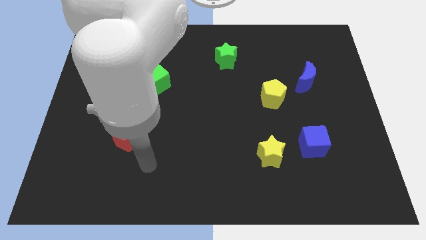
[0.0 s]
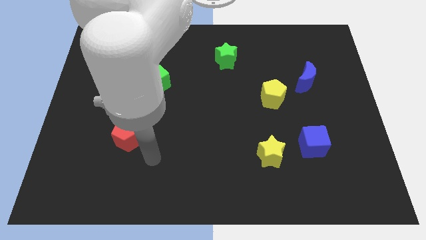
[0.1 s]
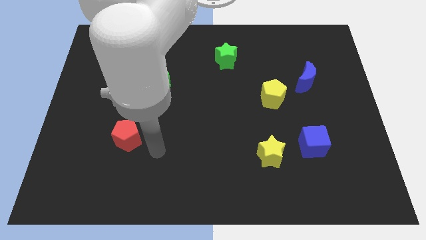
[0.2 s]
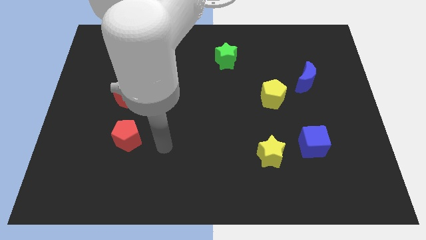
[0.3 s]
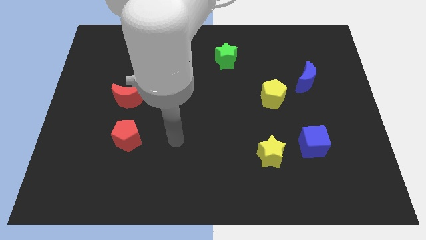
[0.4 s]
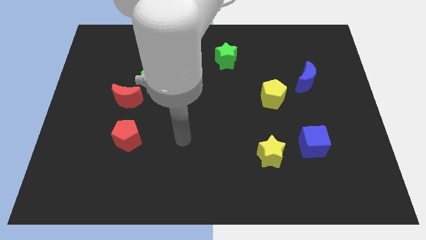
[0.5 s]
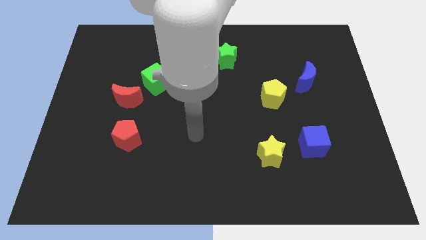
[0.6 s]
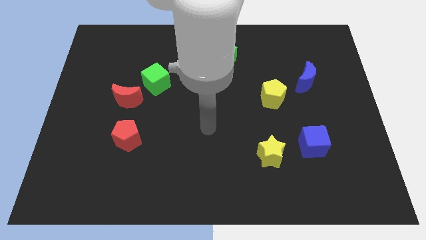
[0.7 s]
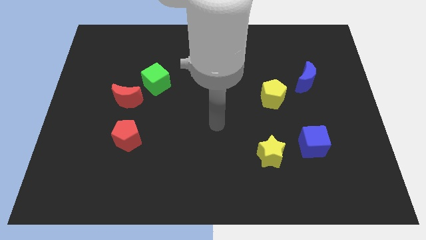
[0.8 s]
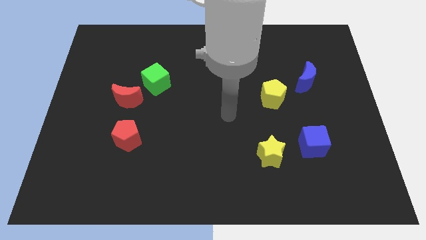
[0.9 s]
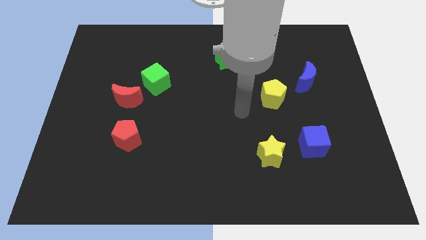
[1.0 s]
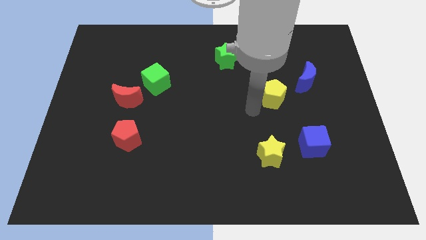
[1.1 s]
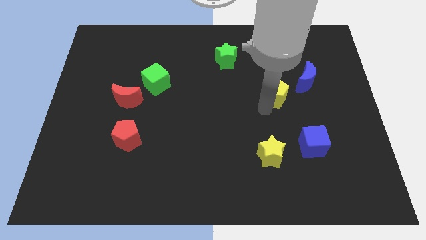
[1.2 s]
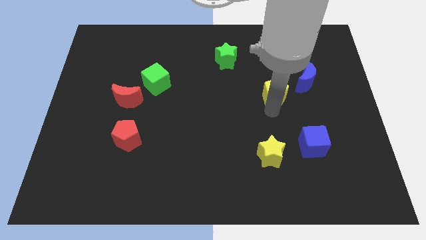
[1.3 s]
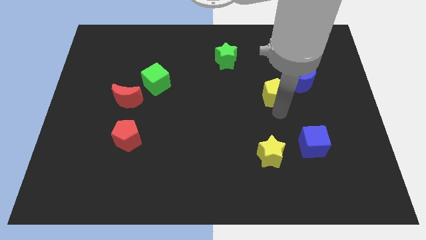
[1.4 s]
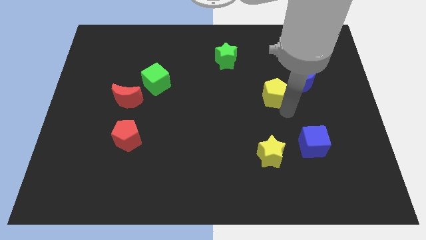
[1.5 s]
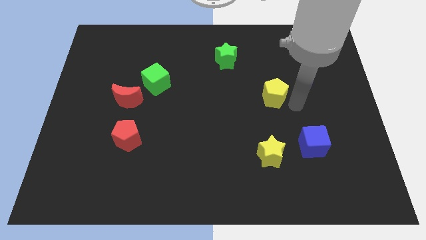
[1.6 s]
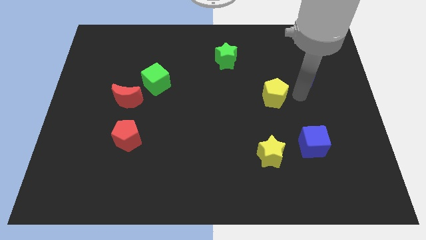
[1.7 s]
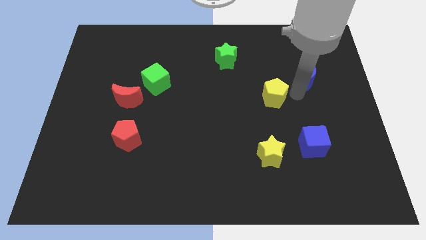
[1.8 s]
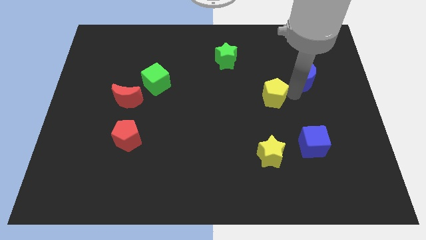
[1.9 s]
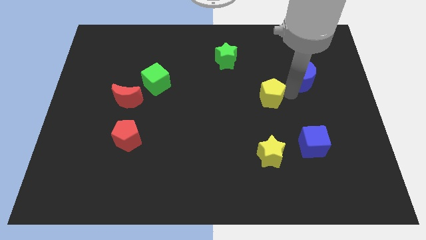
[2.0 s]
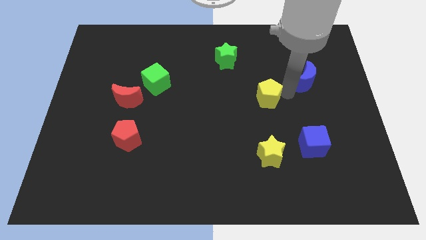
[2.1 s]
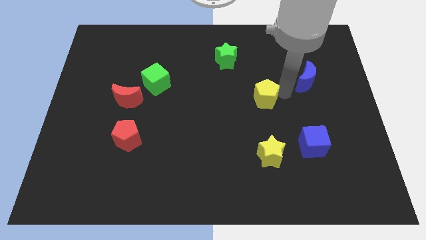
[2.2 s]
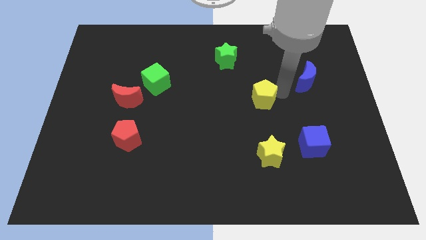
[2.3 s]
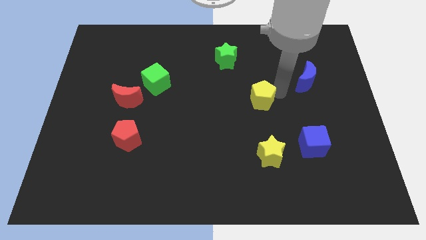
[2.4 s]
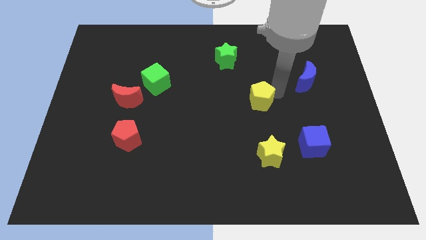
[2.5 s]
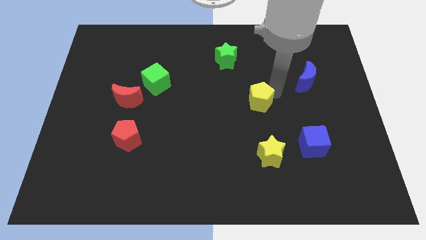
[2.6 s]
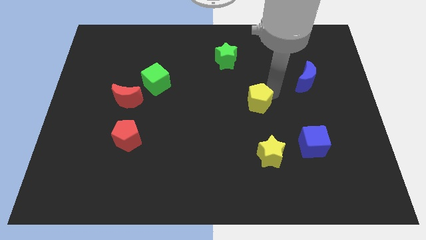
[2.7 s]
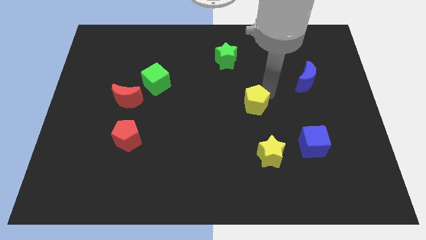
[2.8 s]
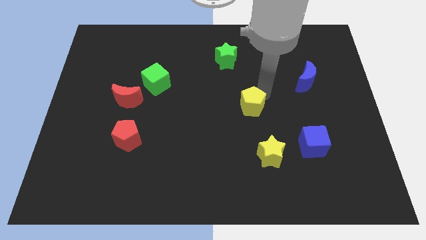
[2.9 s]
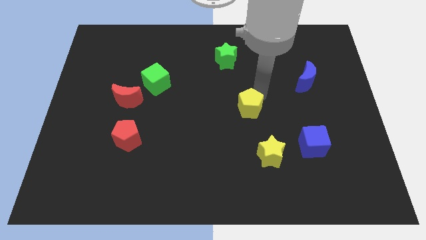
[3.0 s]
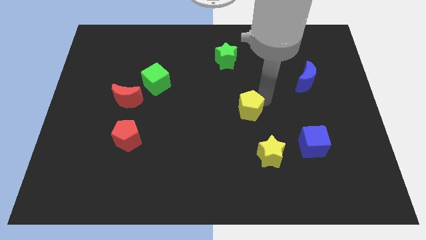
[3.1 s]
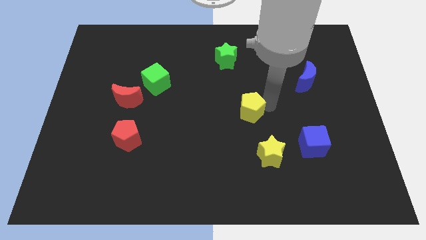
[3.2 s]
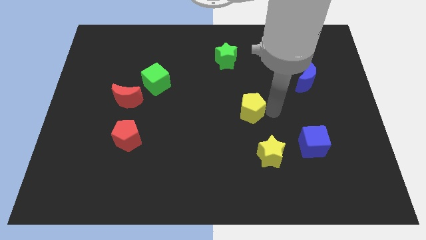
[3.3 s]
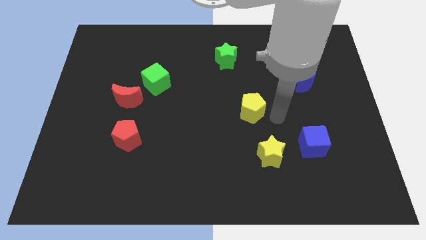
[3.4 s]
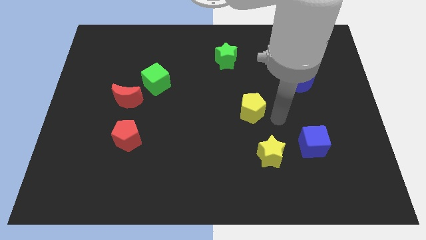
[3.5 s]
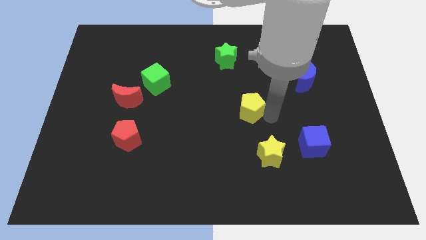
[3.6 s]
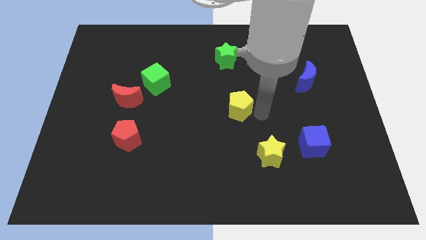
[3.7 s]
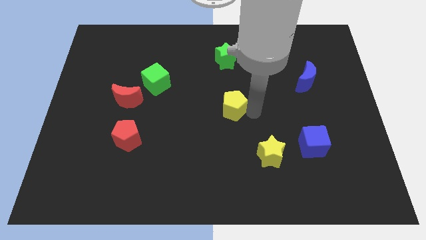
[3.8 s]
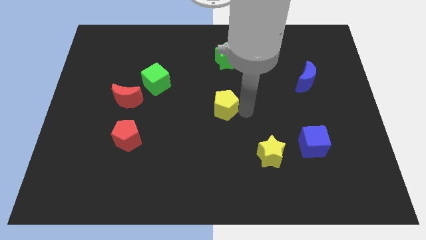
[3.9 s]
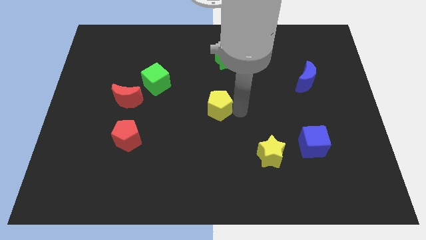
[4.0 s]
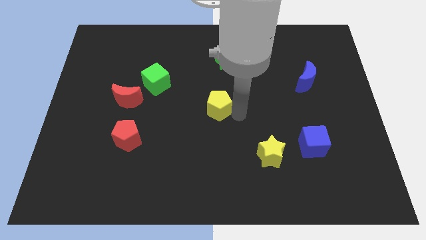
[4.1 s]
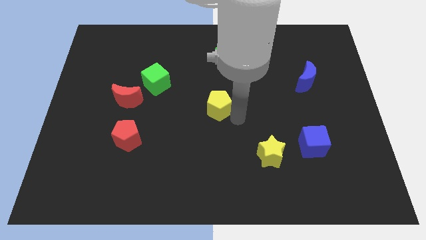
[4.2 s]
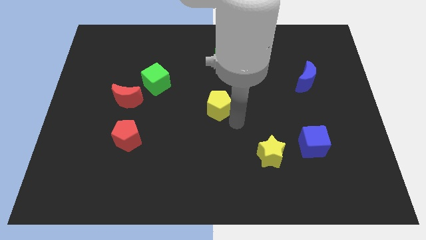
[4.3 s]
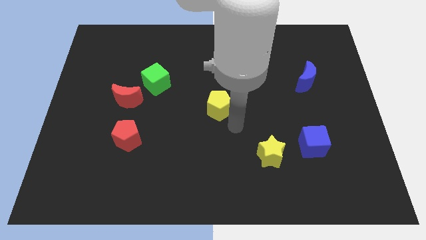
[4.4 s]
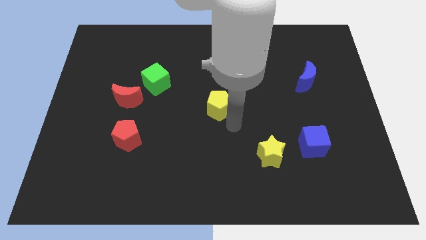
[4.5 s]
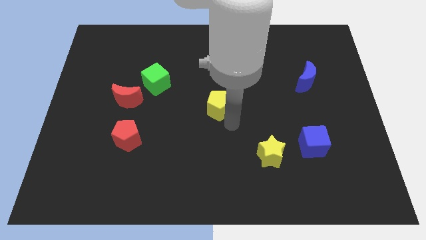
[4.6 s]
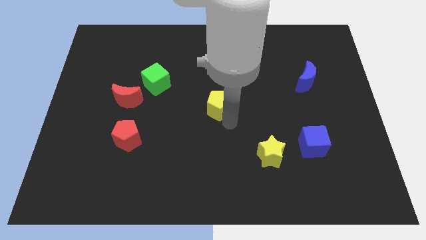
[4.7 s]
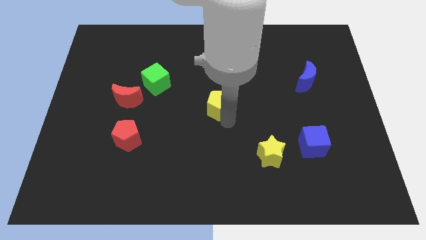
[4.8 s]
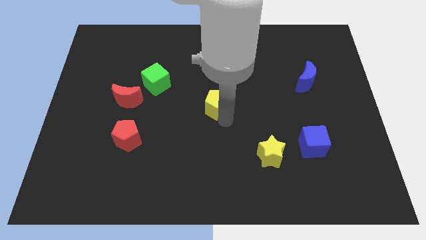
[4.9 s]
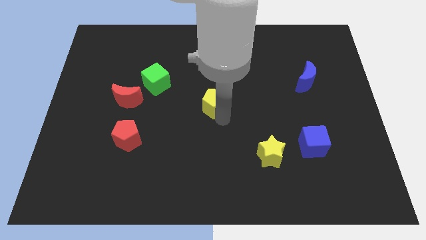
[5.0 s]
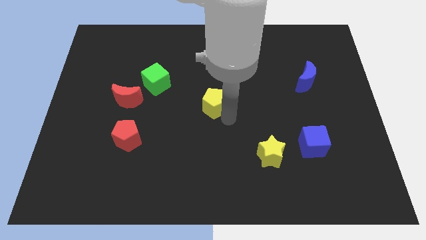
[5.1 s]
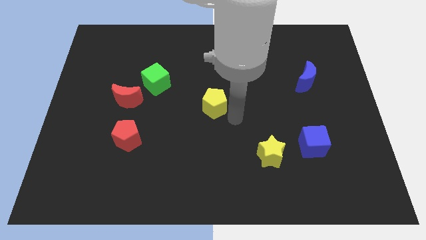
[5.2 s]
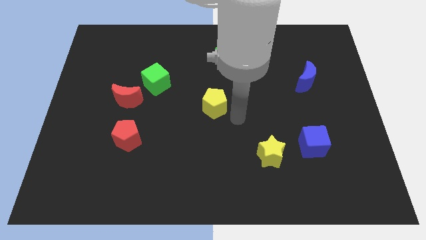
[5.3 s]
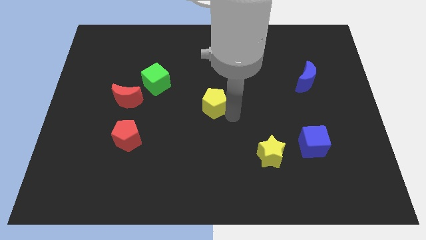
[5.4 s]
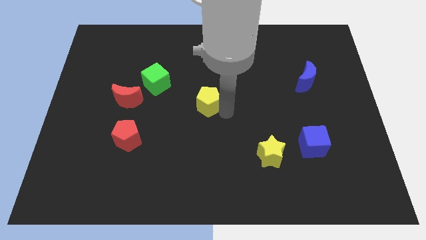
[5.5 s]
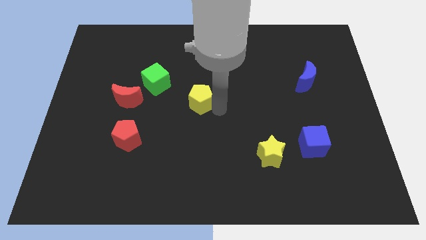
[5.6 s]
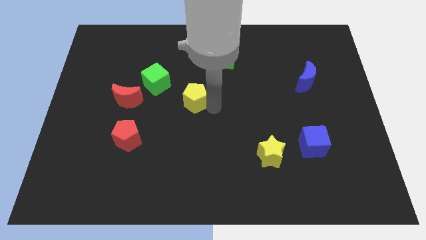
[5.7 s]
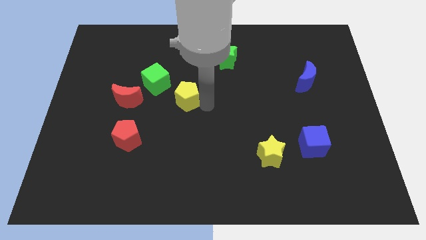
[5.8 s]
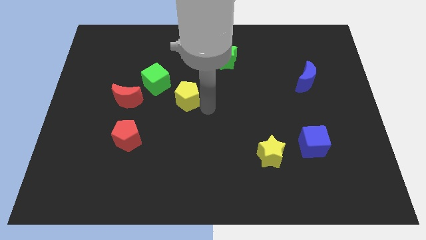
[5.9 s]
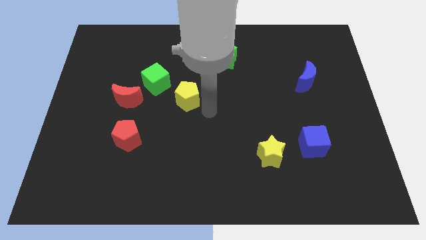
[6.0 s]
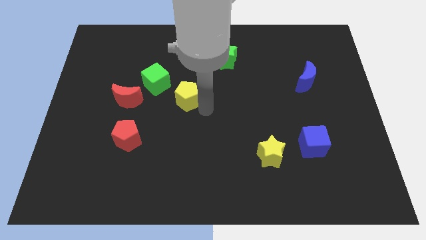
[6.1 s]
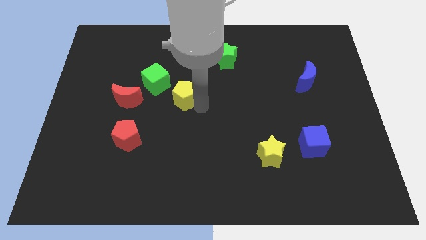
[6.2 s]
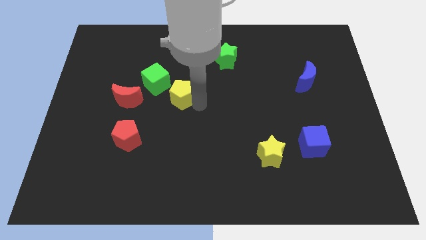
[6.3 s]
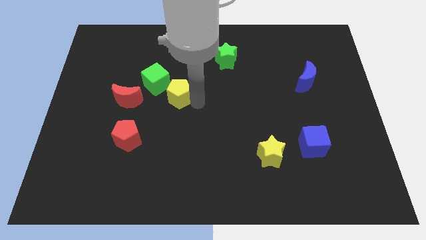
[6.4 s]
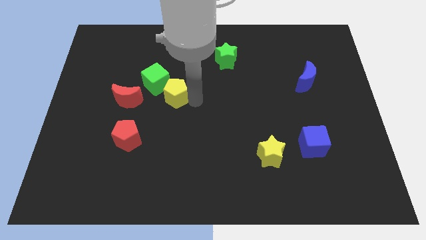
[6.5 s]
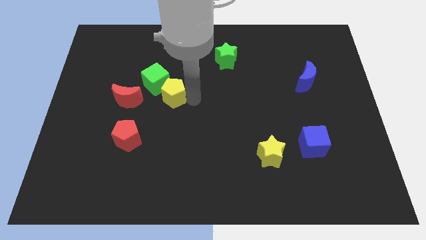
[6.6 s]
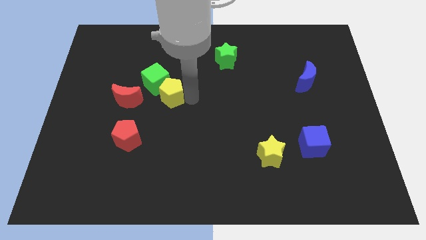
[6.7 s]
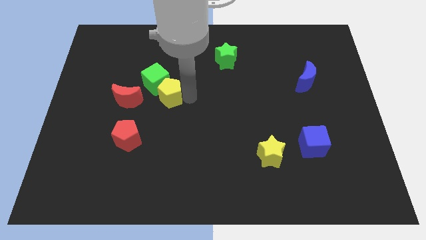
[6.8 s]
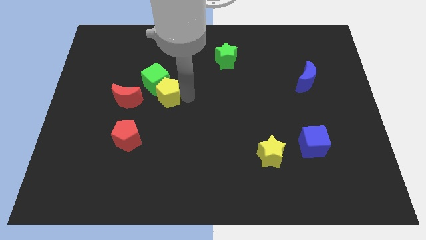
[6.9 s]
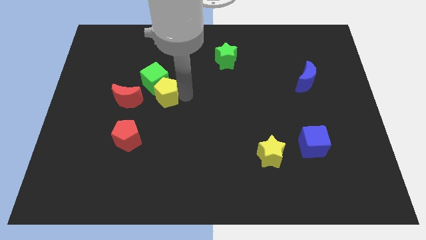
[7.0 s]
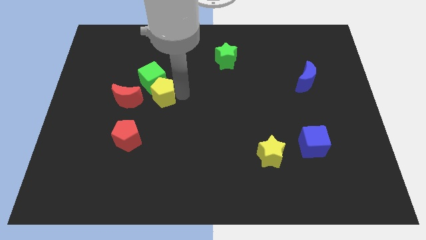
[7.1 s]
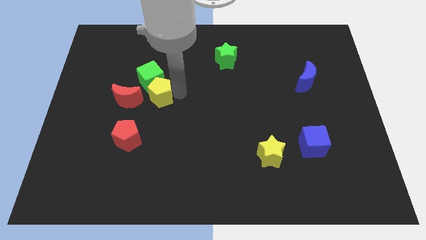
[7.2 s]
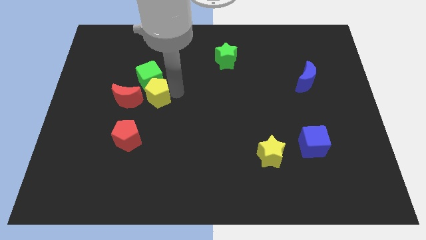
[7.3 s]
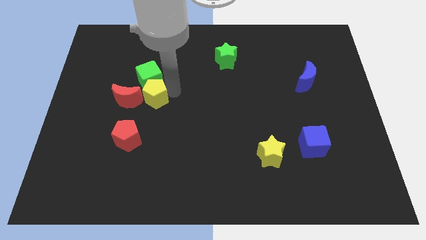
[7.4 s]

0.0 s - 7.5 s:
push the yellow pentagon to the top side of the red pentagon
